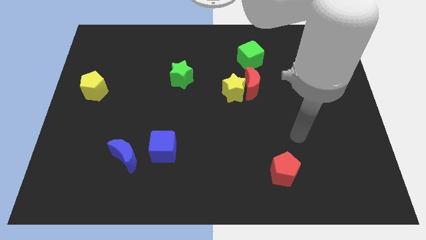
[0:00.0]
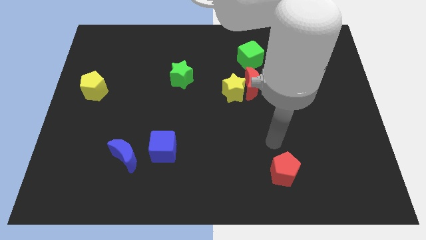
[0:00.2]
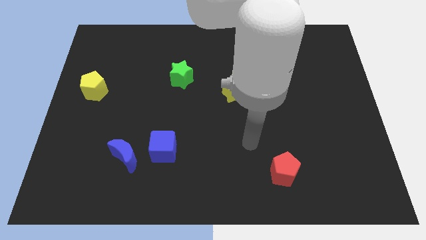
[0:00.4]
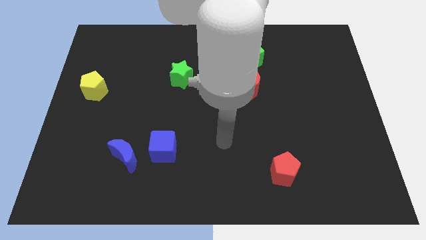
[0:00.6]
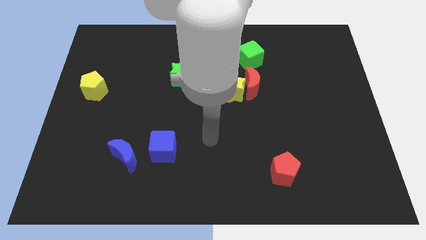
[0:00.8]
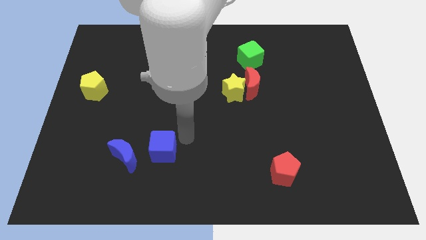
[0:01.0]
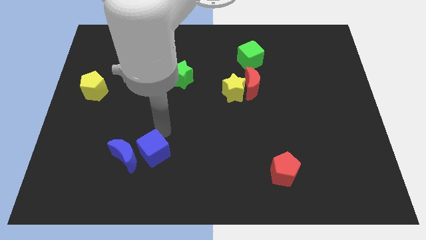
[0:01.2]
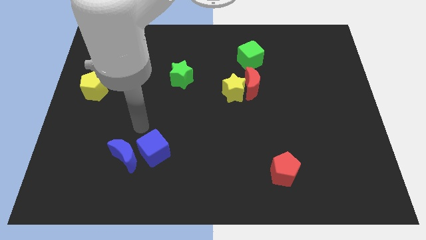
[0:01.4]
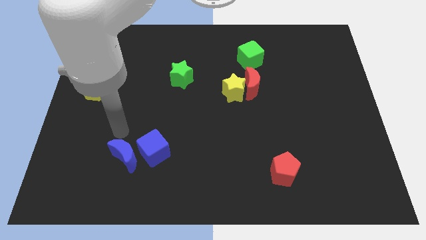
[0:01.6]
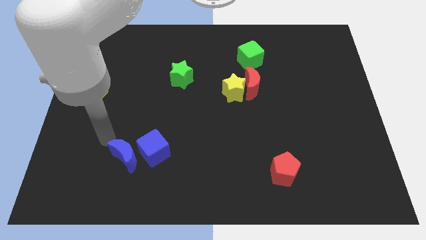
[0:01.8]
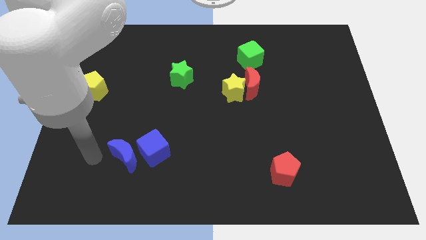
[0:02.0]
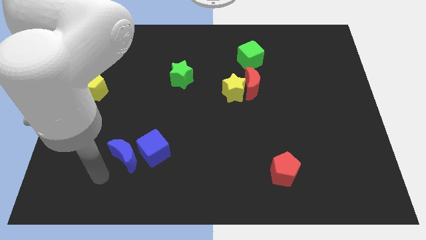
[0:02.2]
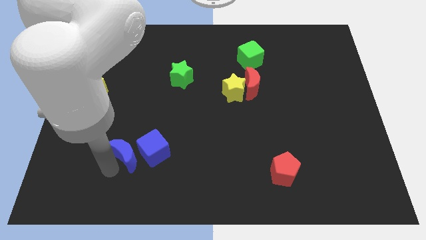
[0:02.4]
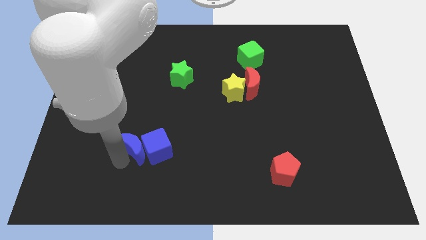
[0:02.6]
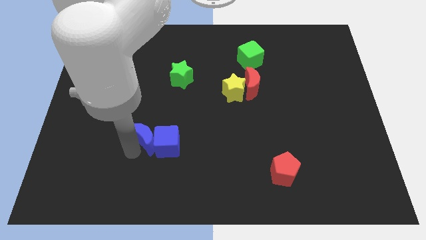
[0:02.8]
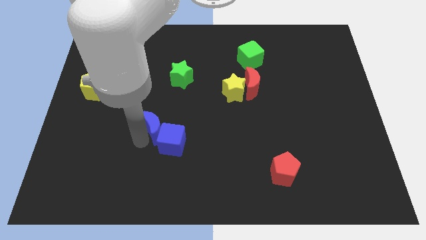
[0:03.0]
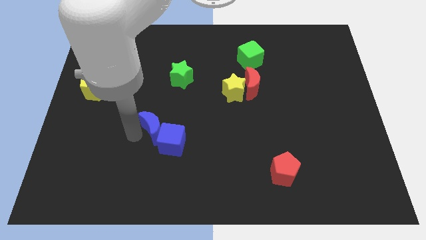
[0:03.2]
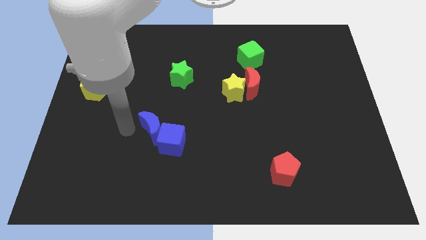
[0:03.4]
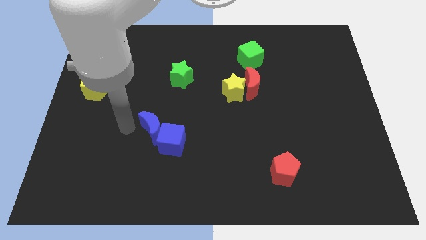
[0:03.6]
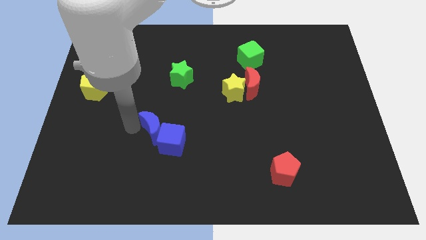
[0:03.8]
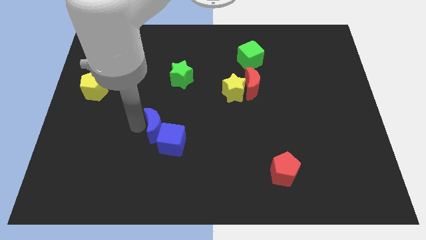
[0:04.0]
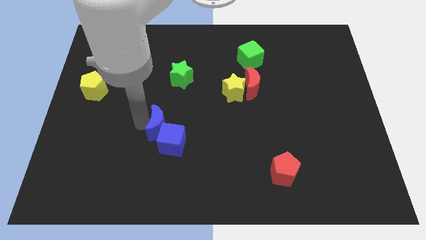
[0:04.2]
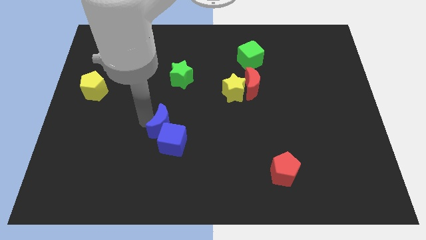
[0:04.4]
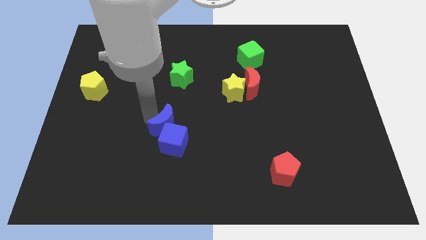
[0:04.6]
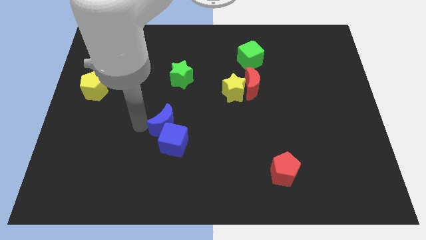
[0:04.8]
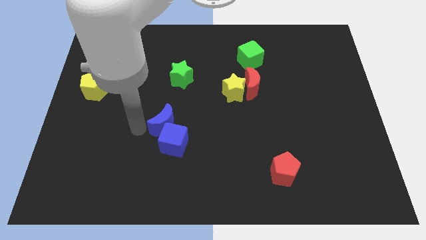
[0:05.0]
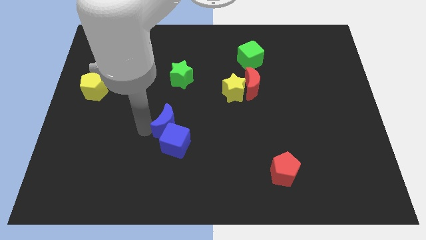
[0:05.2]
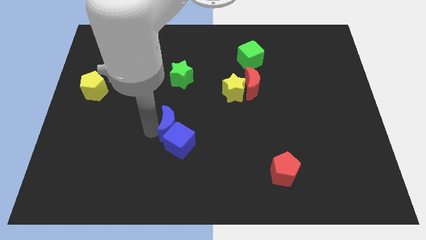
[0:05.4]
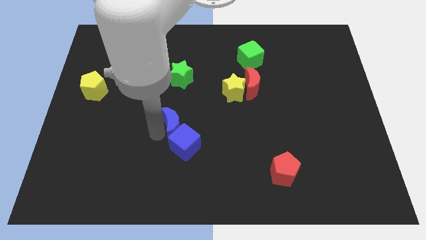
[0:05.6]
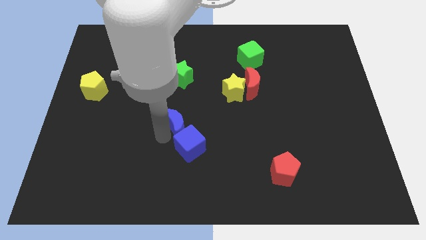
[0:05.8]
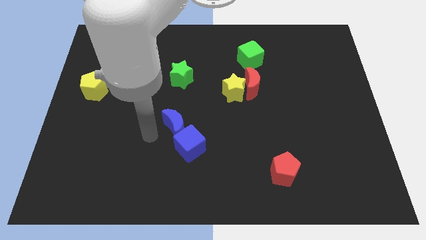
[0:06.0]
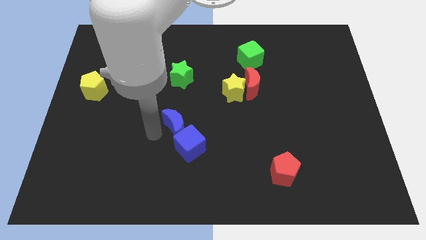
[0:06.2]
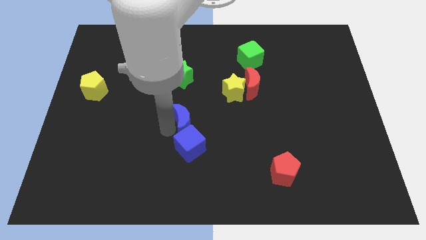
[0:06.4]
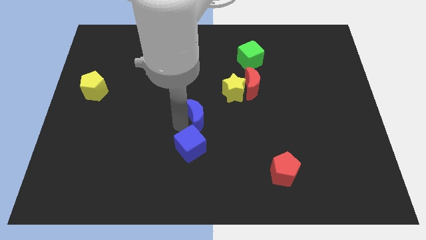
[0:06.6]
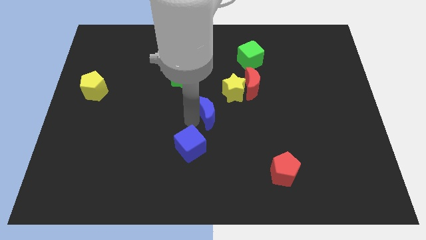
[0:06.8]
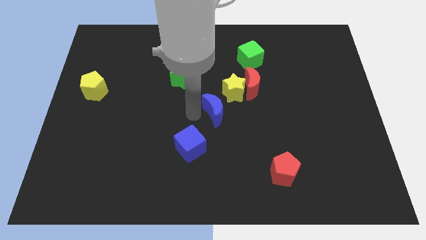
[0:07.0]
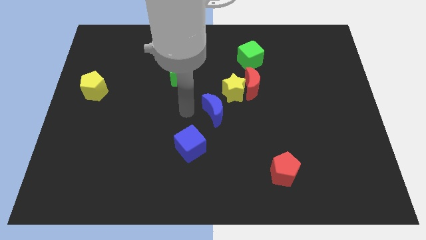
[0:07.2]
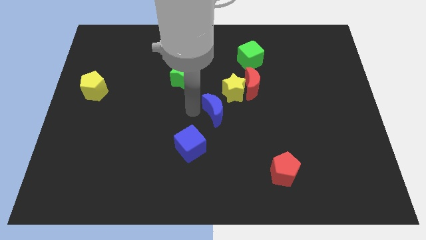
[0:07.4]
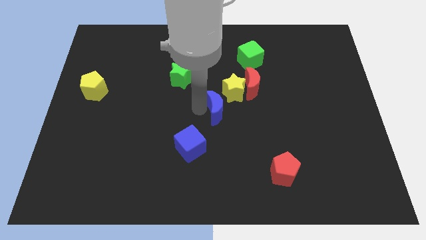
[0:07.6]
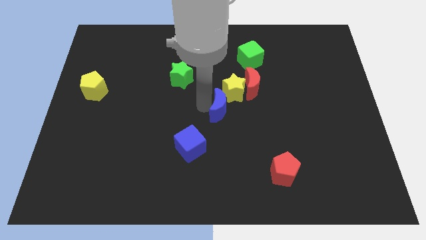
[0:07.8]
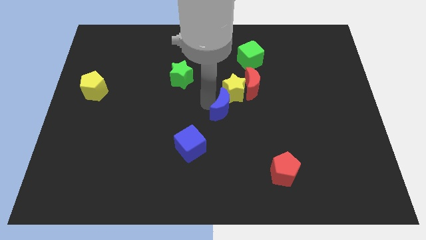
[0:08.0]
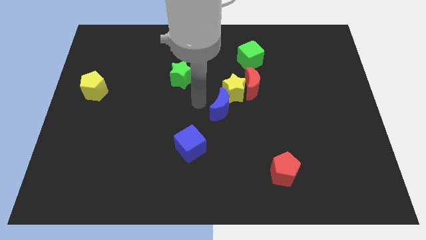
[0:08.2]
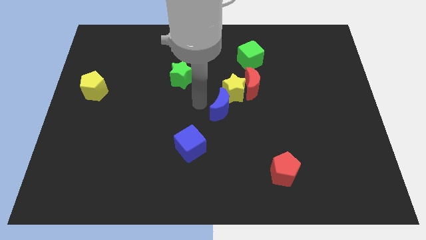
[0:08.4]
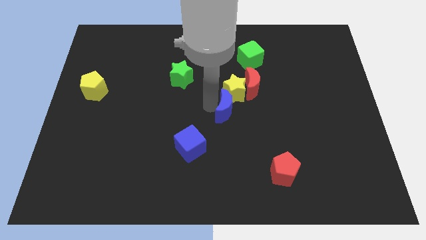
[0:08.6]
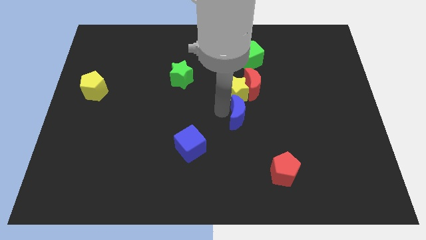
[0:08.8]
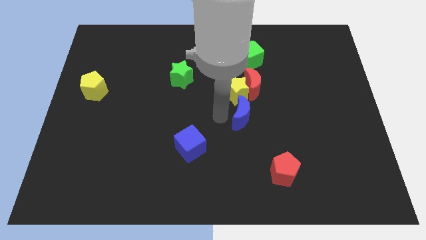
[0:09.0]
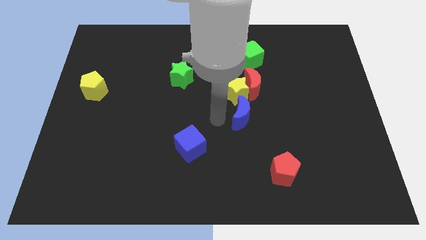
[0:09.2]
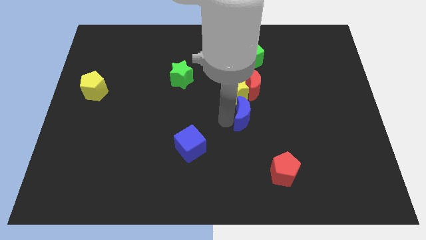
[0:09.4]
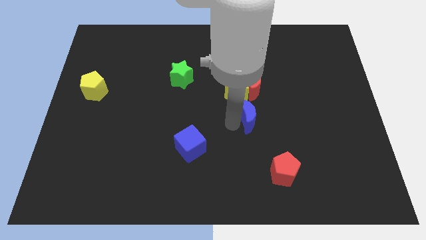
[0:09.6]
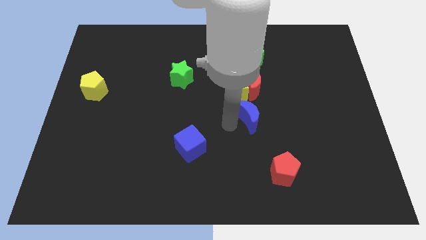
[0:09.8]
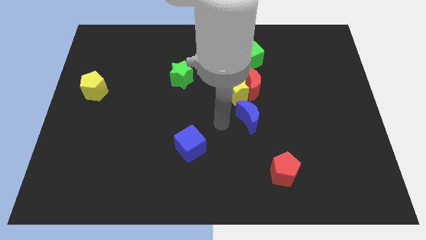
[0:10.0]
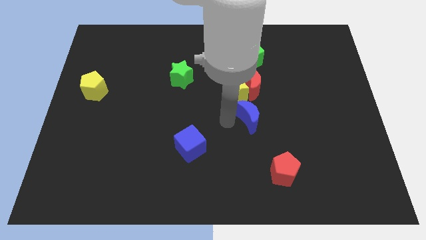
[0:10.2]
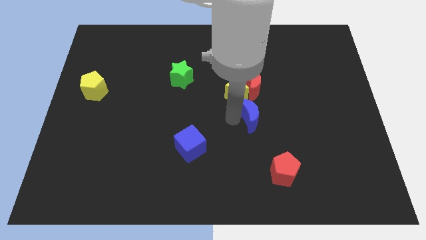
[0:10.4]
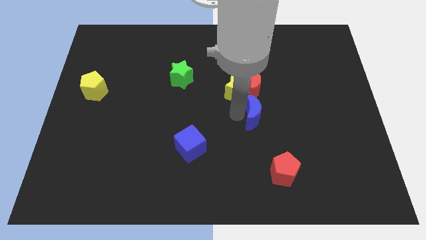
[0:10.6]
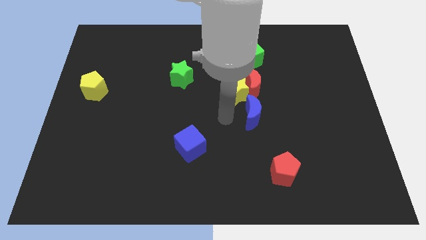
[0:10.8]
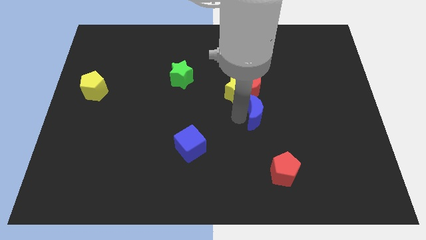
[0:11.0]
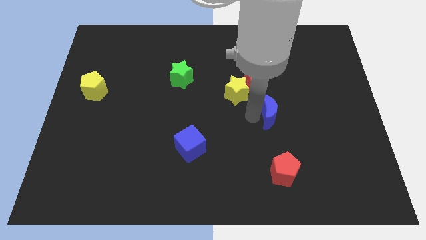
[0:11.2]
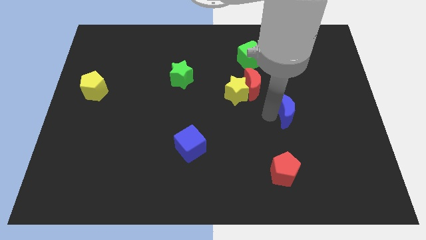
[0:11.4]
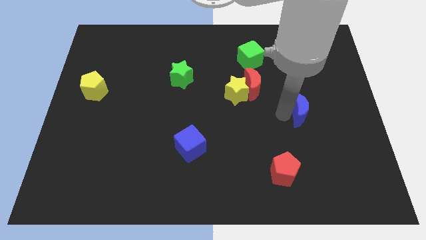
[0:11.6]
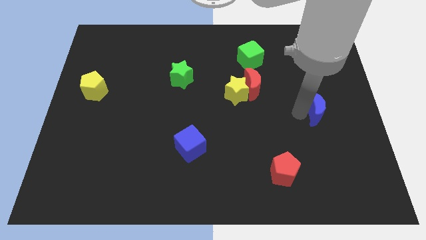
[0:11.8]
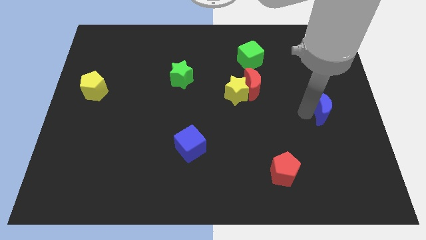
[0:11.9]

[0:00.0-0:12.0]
push the blue moon to the center right

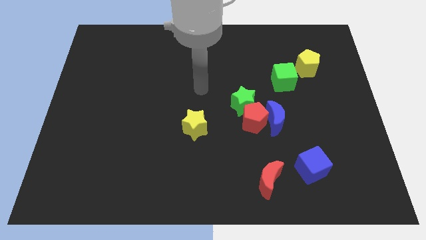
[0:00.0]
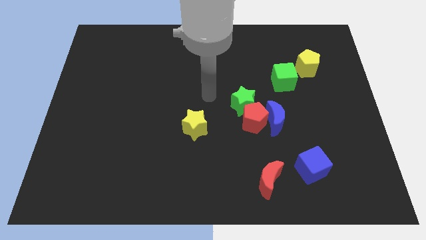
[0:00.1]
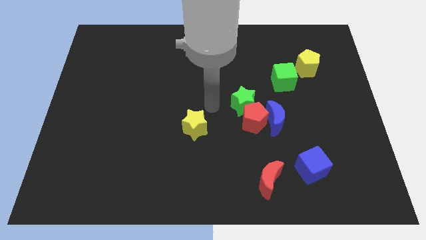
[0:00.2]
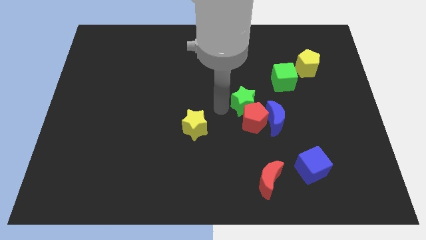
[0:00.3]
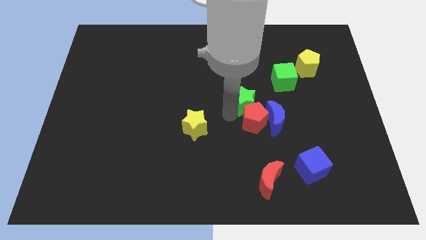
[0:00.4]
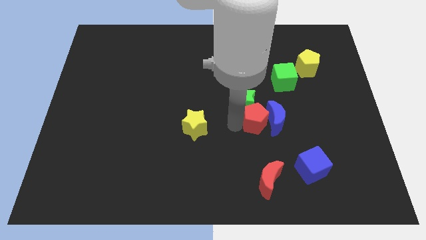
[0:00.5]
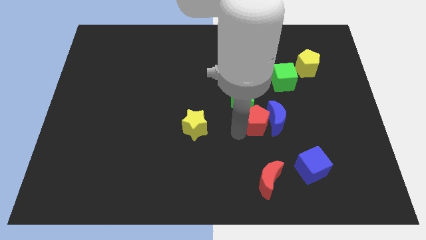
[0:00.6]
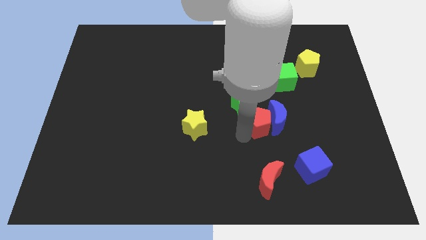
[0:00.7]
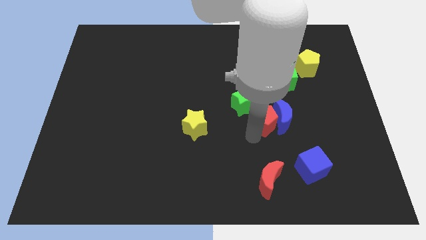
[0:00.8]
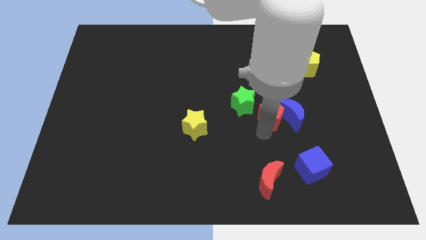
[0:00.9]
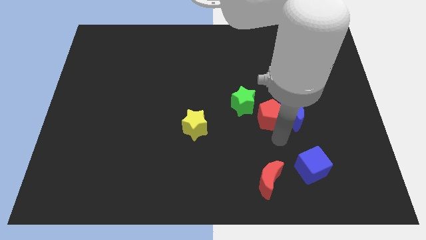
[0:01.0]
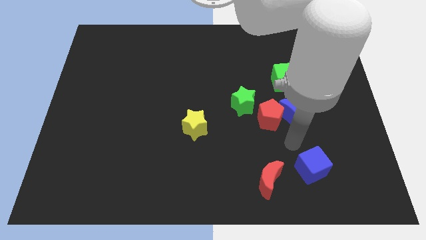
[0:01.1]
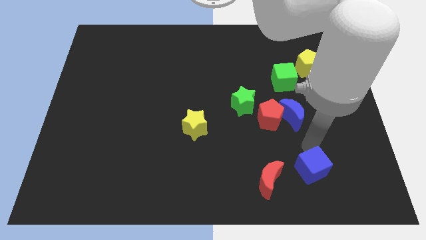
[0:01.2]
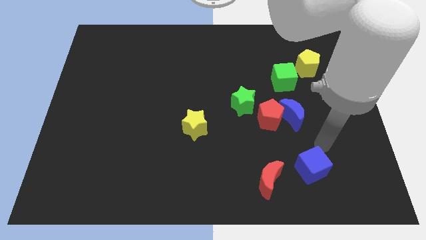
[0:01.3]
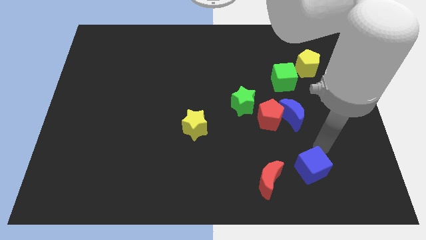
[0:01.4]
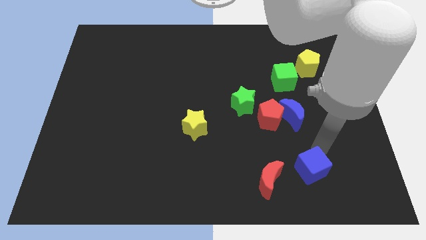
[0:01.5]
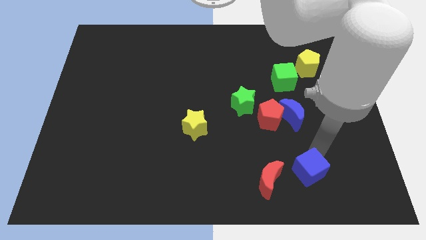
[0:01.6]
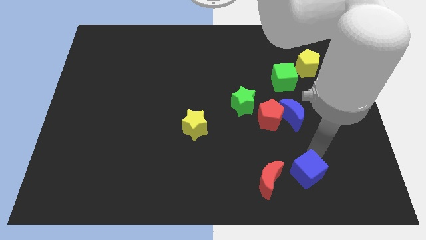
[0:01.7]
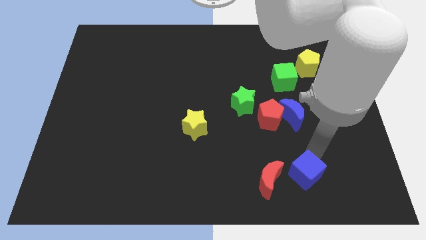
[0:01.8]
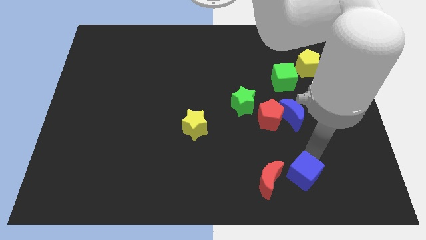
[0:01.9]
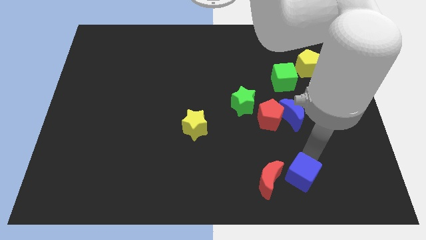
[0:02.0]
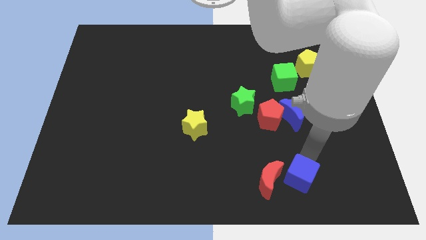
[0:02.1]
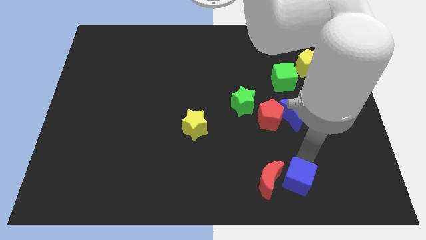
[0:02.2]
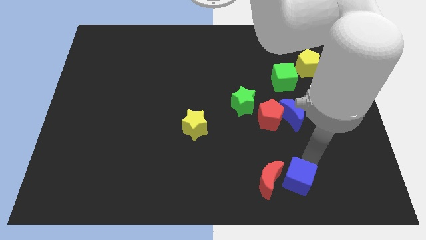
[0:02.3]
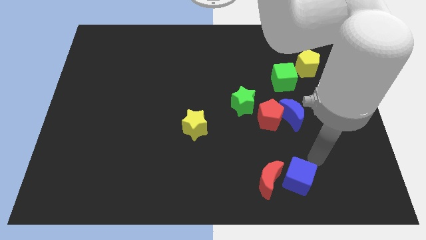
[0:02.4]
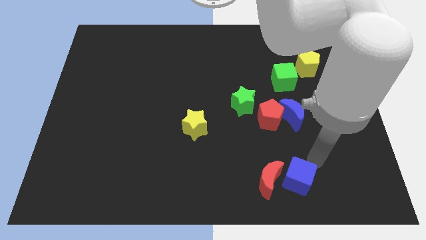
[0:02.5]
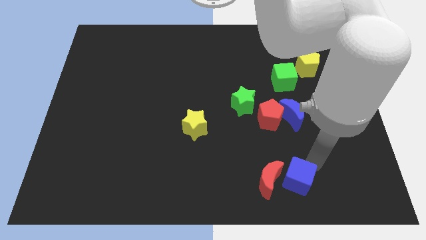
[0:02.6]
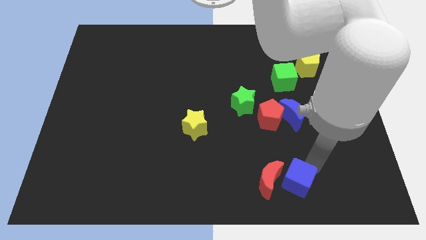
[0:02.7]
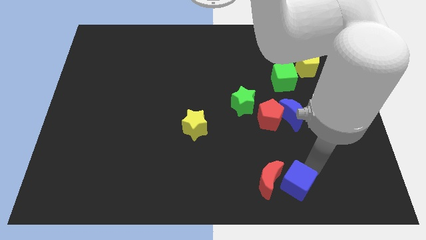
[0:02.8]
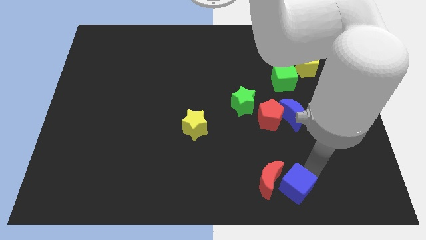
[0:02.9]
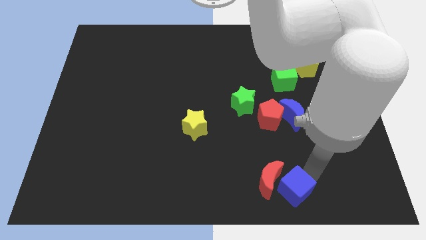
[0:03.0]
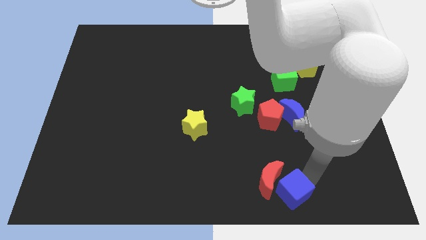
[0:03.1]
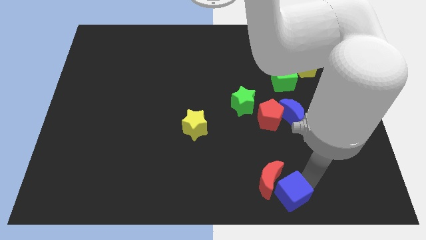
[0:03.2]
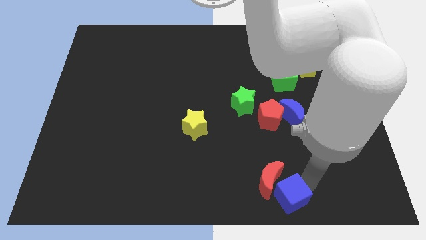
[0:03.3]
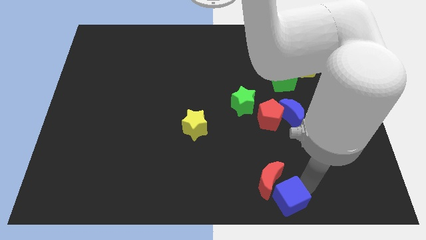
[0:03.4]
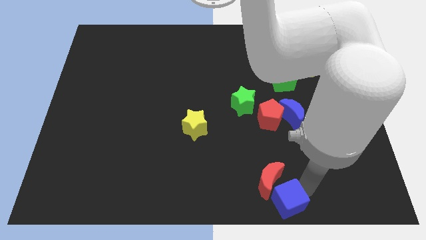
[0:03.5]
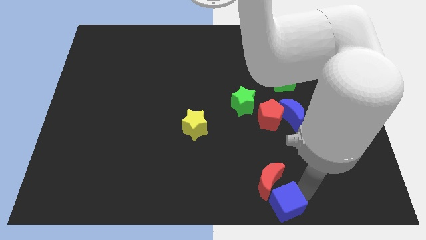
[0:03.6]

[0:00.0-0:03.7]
put the blue cube to the bottom side
